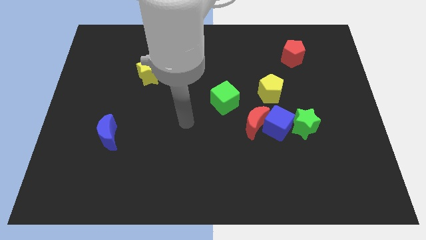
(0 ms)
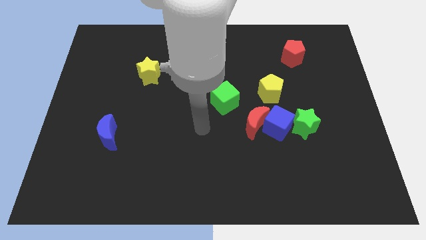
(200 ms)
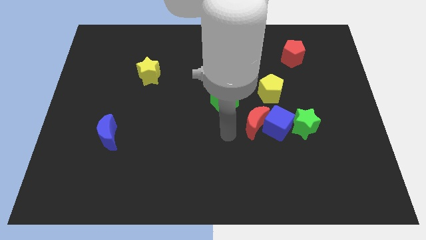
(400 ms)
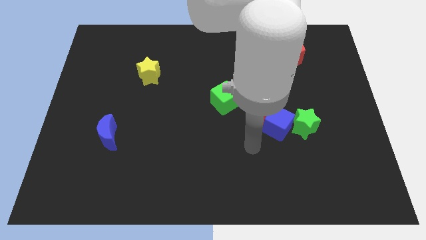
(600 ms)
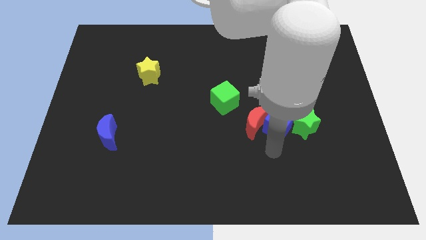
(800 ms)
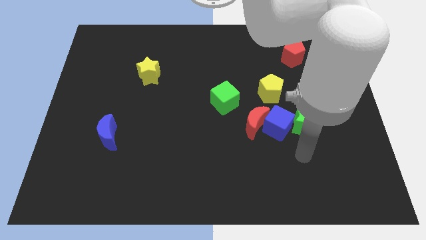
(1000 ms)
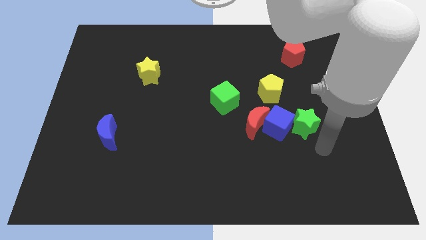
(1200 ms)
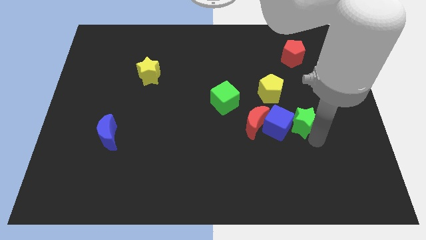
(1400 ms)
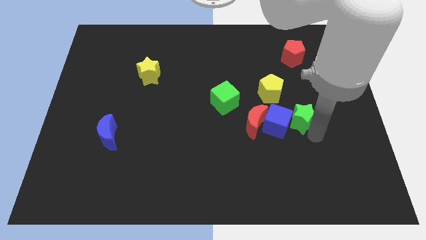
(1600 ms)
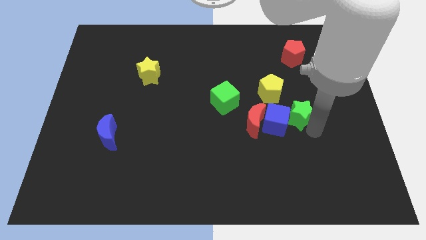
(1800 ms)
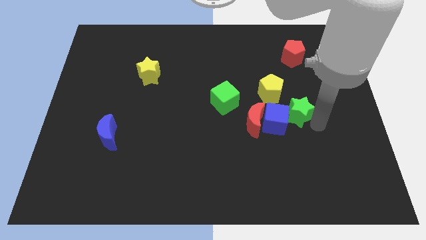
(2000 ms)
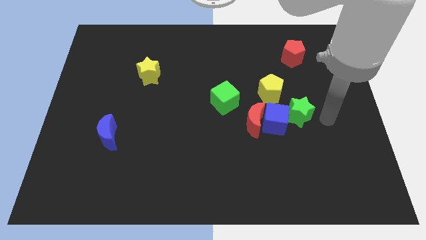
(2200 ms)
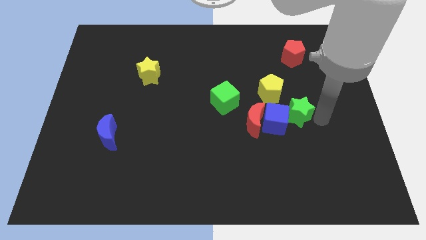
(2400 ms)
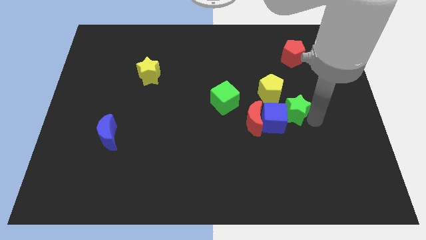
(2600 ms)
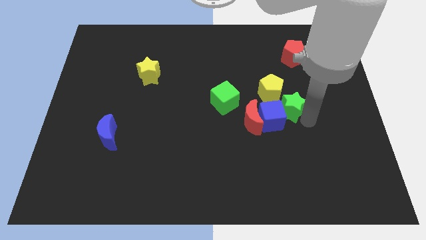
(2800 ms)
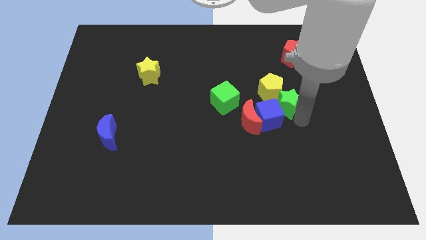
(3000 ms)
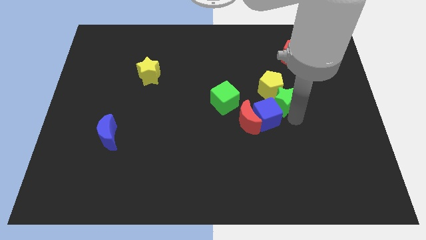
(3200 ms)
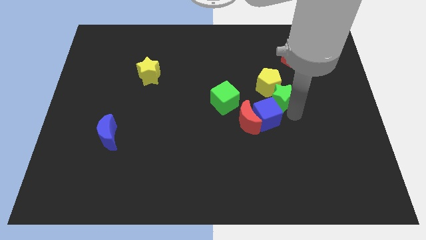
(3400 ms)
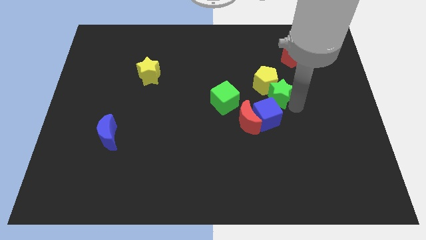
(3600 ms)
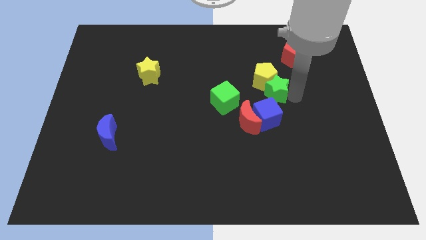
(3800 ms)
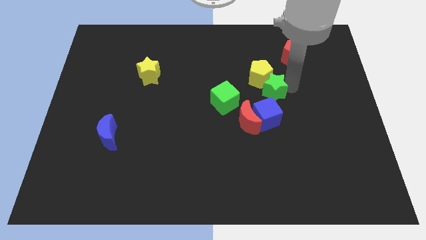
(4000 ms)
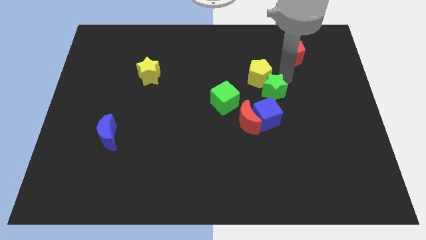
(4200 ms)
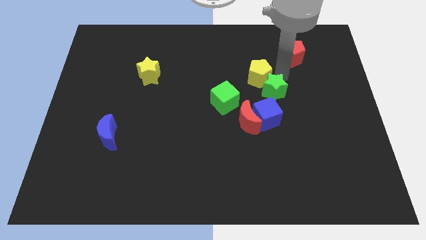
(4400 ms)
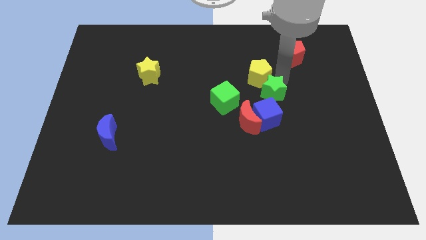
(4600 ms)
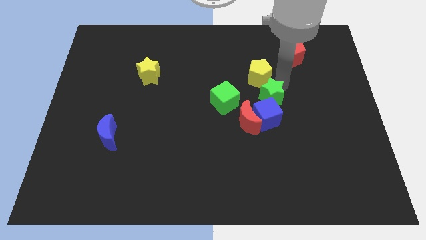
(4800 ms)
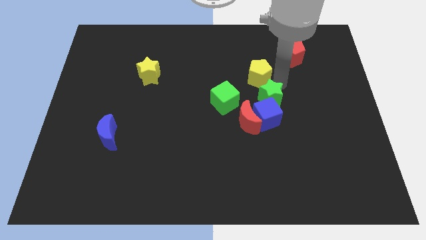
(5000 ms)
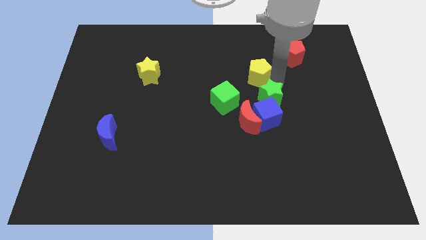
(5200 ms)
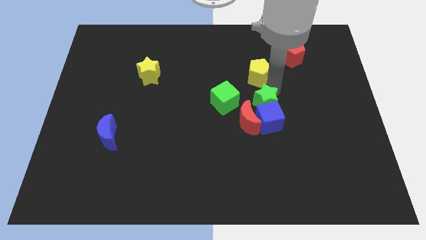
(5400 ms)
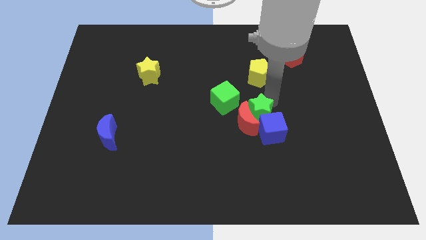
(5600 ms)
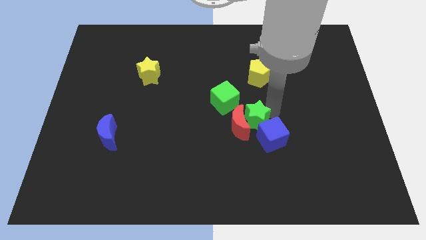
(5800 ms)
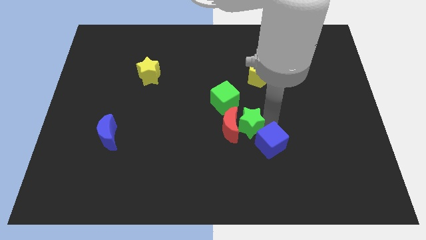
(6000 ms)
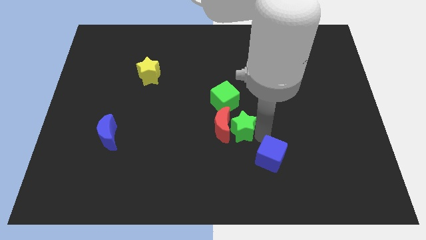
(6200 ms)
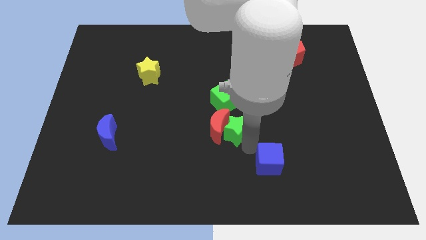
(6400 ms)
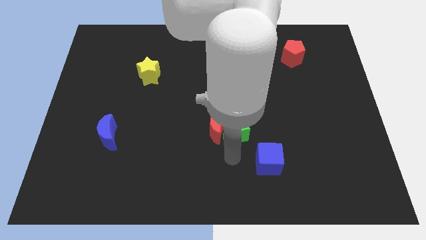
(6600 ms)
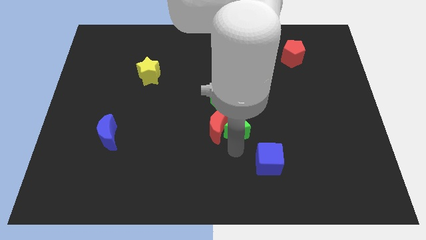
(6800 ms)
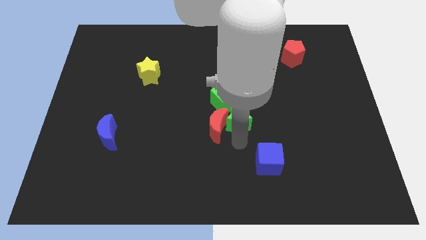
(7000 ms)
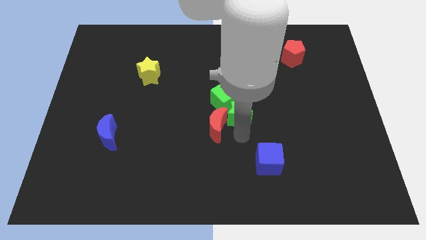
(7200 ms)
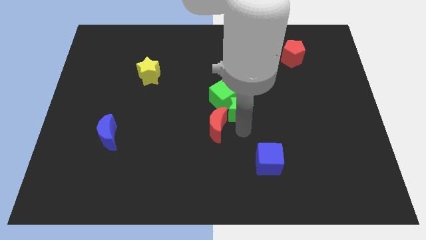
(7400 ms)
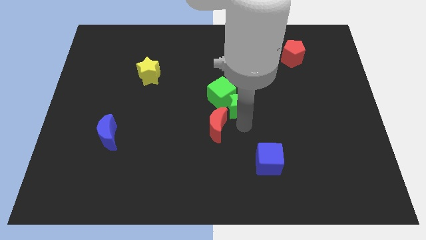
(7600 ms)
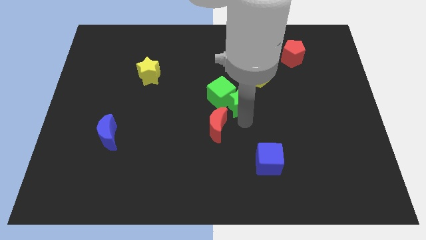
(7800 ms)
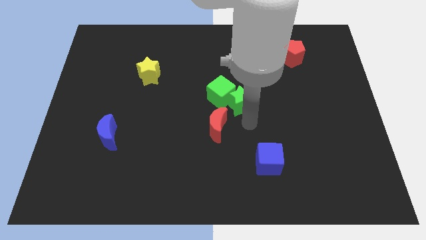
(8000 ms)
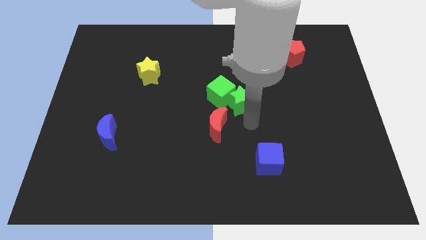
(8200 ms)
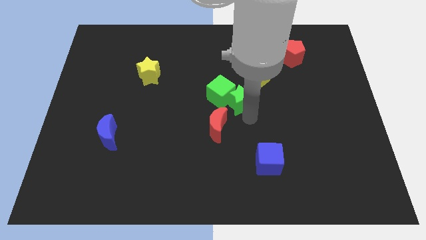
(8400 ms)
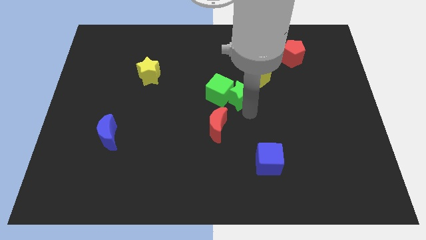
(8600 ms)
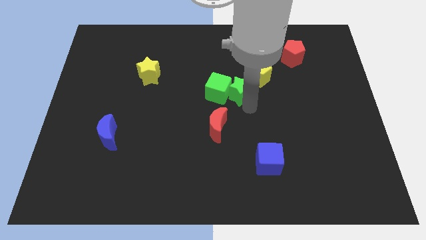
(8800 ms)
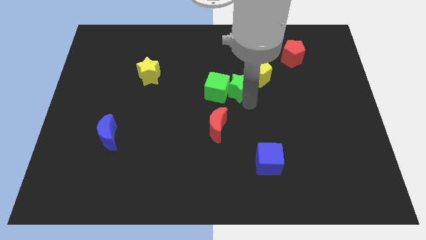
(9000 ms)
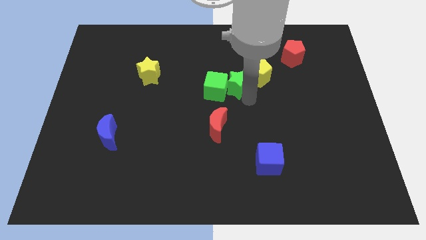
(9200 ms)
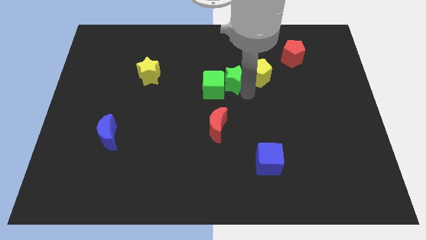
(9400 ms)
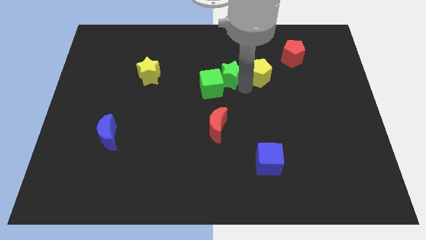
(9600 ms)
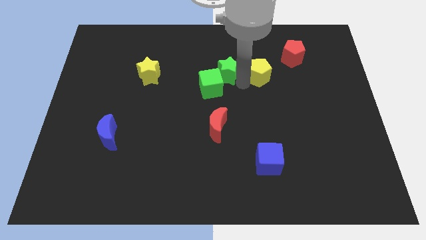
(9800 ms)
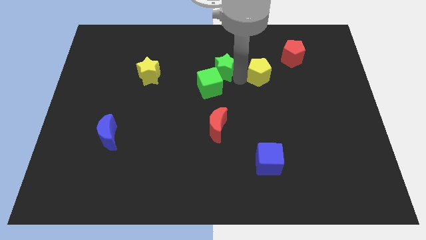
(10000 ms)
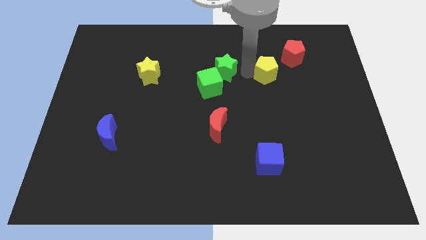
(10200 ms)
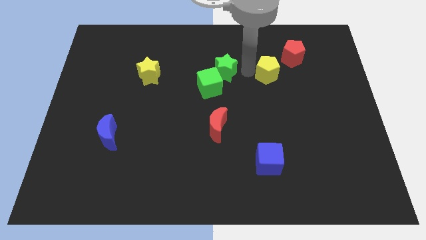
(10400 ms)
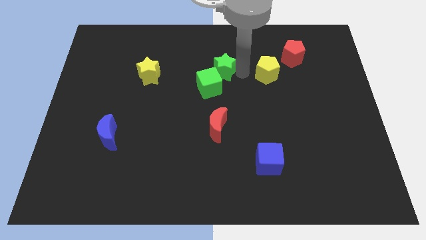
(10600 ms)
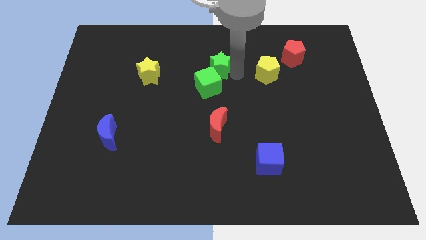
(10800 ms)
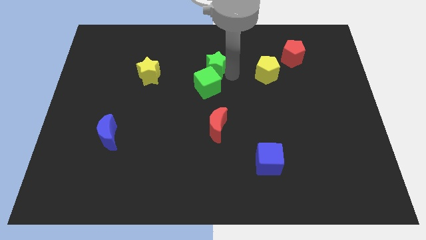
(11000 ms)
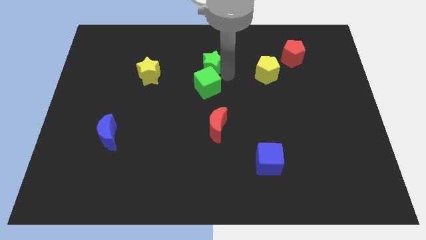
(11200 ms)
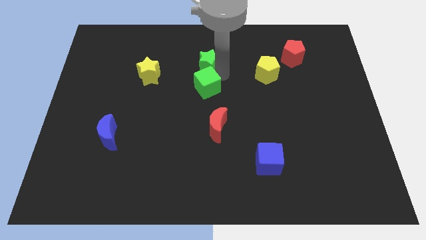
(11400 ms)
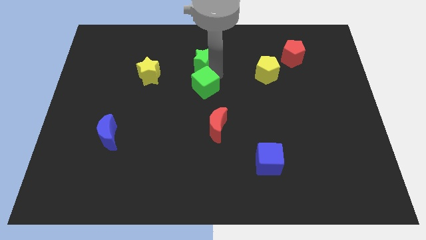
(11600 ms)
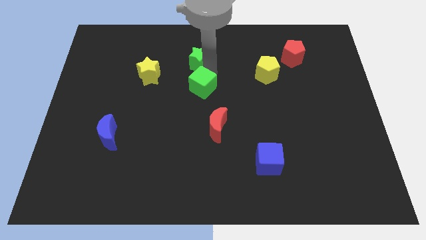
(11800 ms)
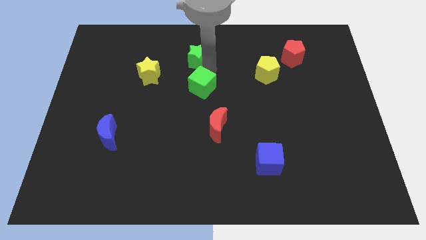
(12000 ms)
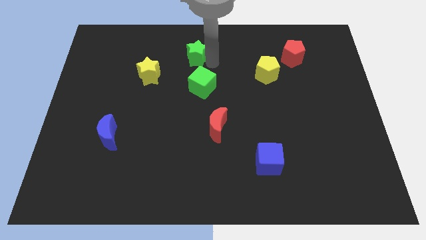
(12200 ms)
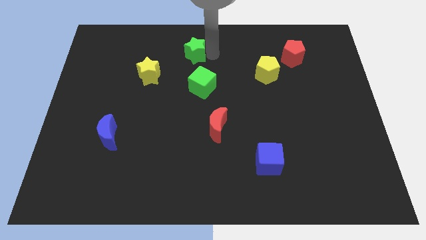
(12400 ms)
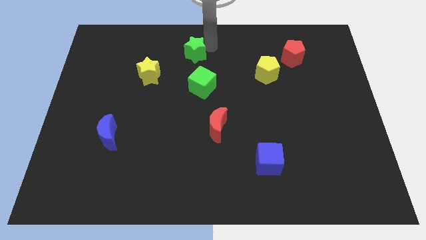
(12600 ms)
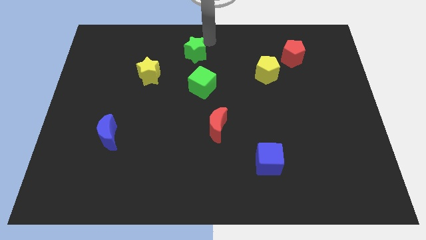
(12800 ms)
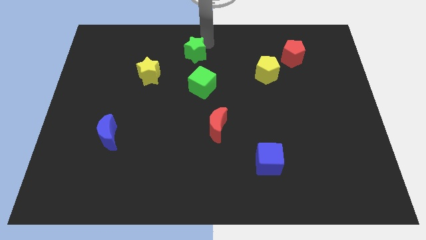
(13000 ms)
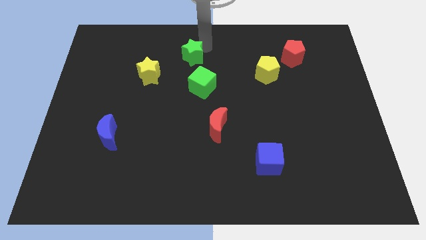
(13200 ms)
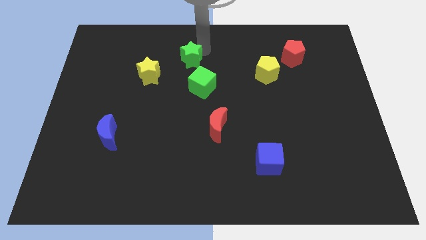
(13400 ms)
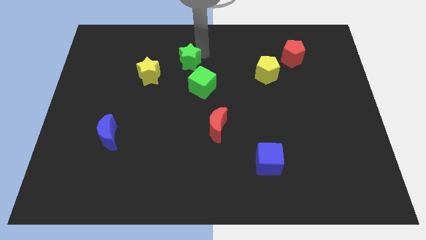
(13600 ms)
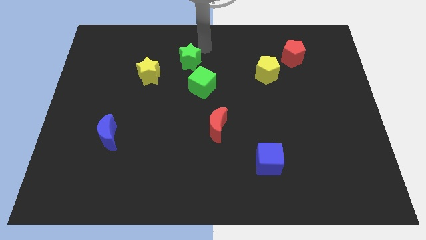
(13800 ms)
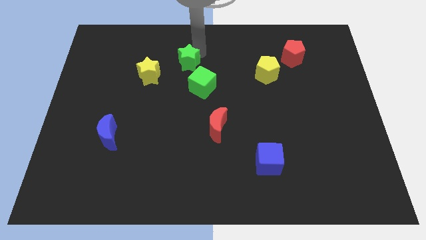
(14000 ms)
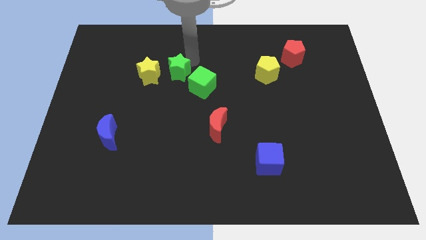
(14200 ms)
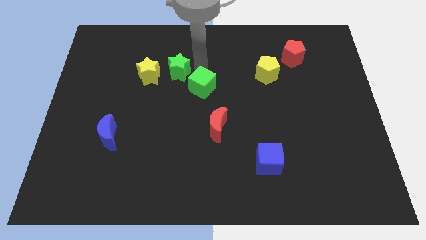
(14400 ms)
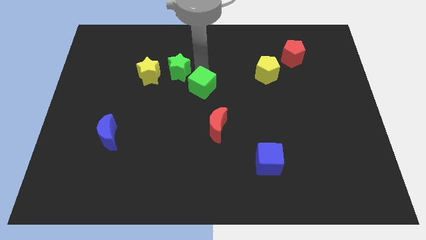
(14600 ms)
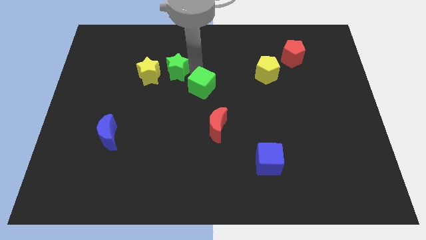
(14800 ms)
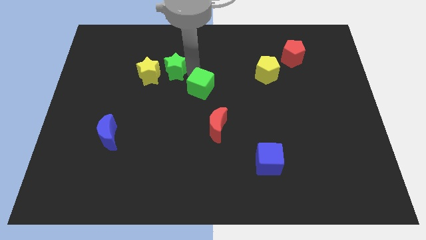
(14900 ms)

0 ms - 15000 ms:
slide the green star to the yellow star
